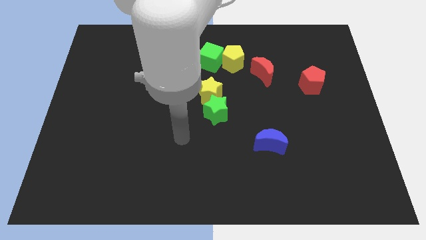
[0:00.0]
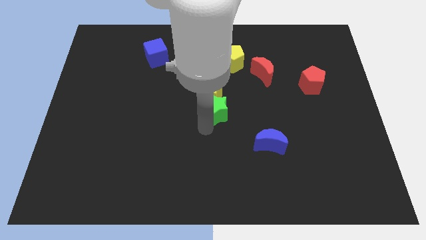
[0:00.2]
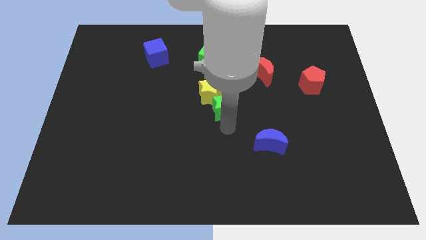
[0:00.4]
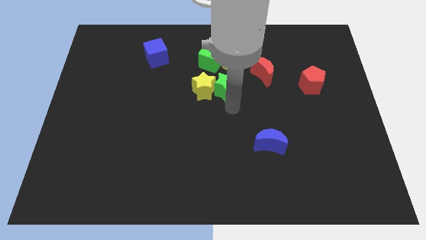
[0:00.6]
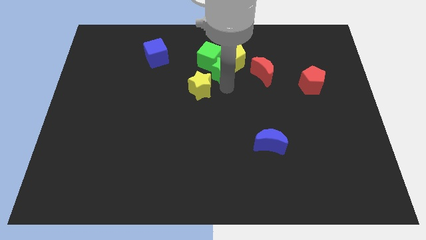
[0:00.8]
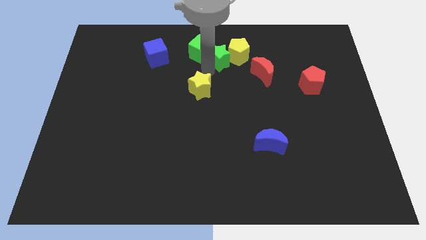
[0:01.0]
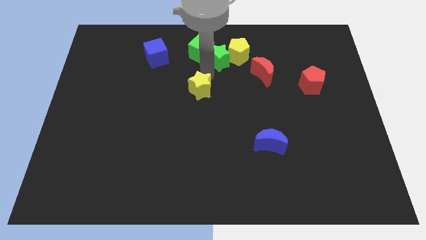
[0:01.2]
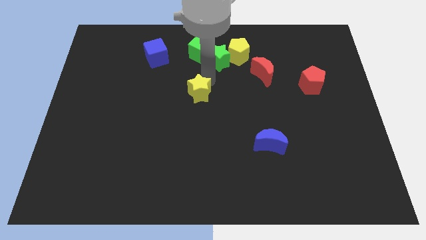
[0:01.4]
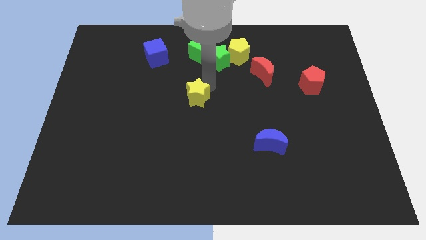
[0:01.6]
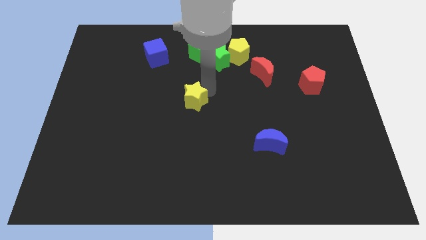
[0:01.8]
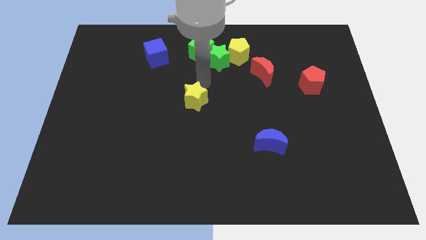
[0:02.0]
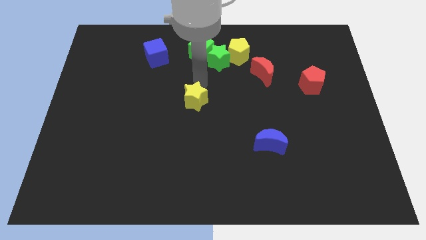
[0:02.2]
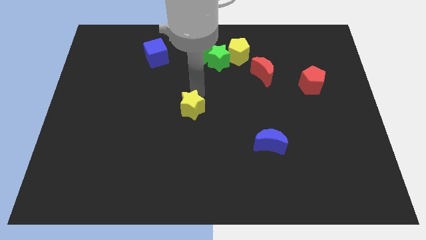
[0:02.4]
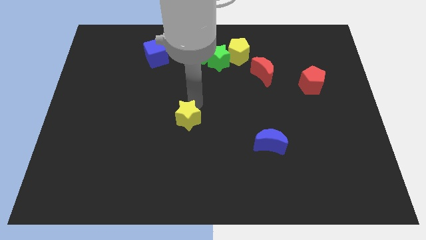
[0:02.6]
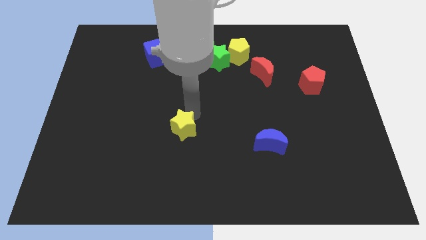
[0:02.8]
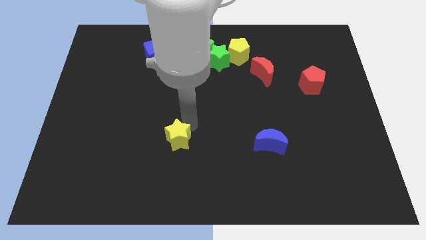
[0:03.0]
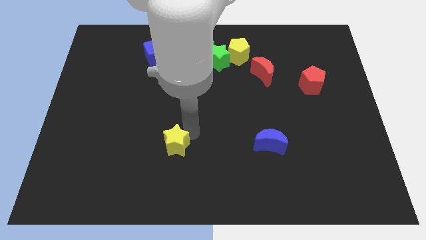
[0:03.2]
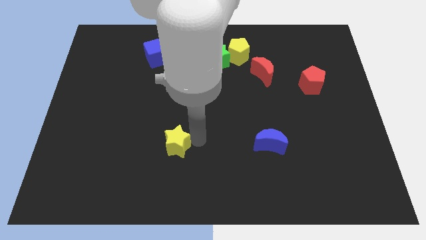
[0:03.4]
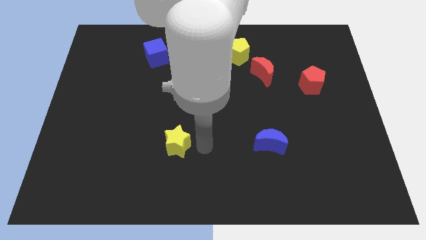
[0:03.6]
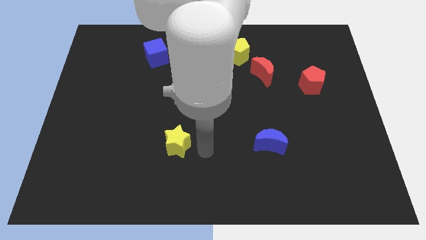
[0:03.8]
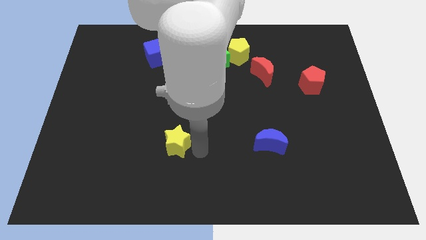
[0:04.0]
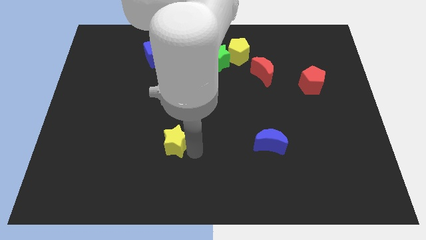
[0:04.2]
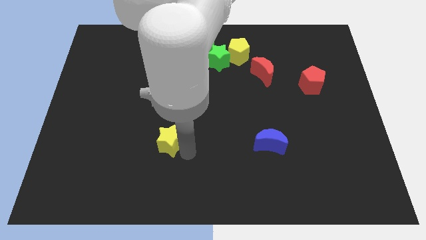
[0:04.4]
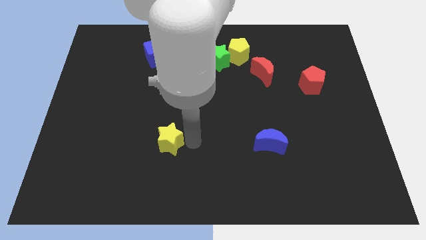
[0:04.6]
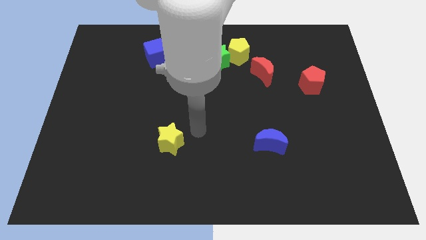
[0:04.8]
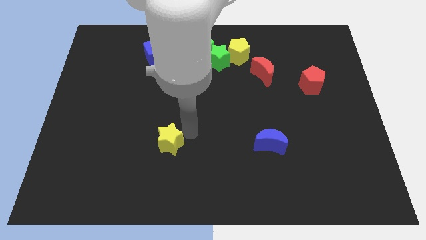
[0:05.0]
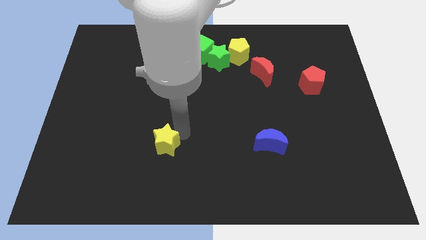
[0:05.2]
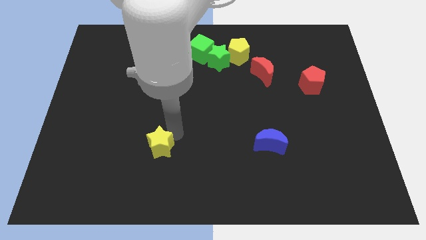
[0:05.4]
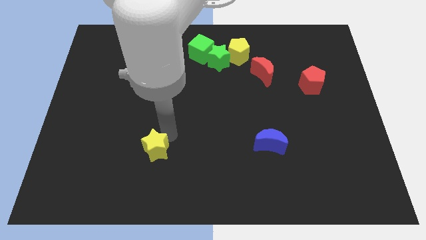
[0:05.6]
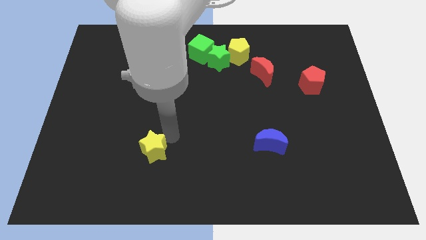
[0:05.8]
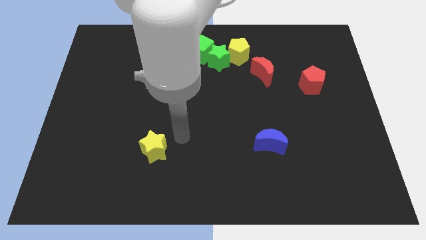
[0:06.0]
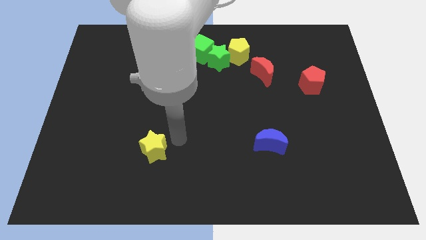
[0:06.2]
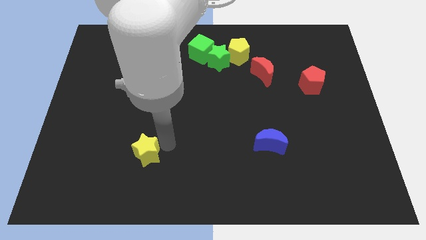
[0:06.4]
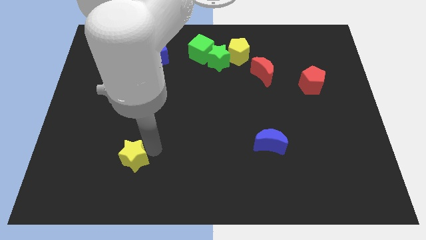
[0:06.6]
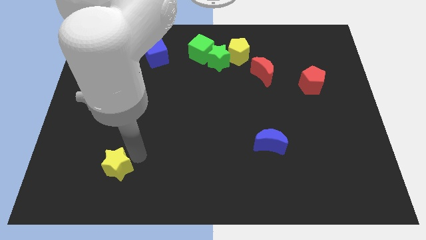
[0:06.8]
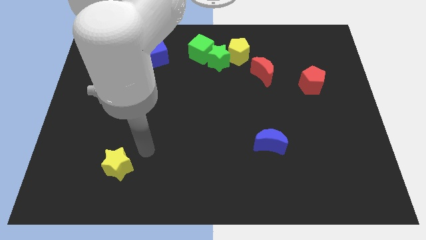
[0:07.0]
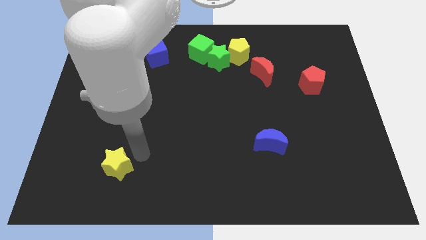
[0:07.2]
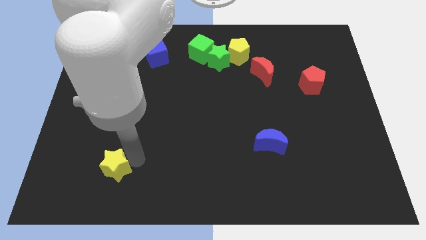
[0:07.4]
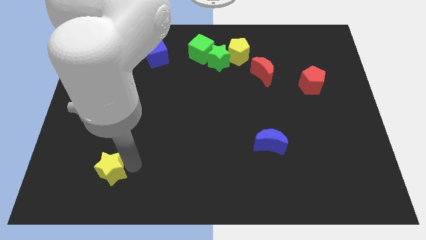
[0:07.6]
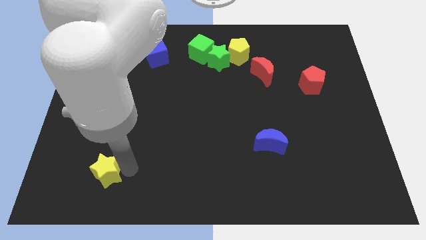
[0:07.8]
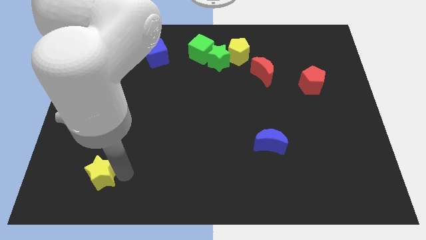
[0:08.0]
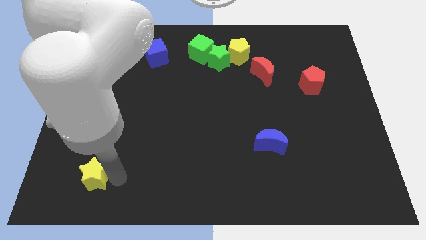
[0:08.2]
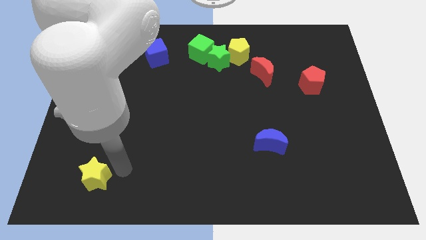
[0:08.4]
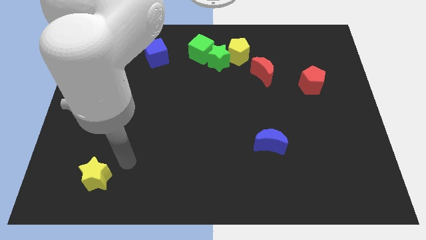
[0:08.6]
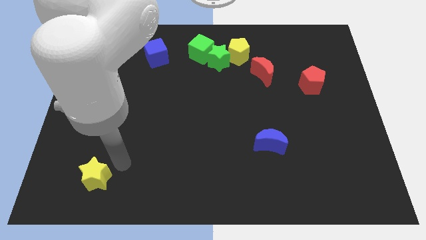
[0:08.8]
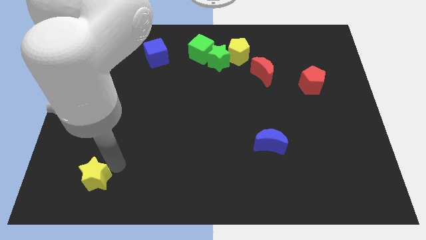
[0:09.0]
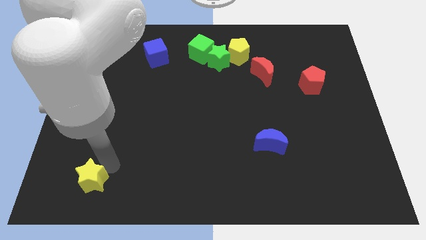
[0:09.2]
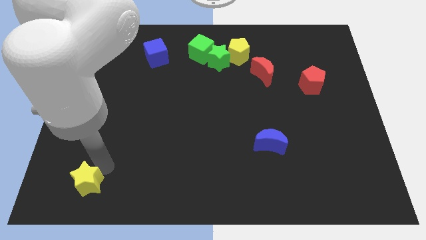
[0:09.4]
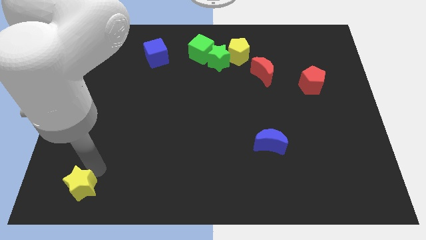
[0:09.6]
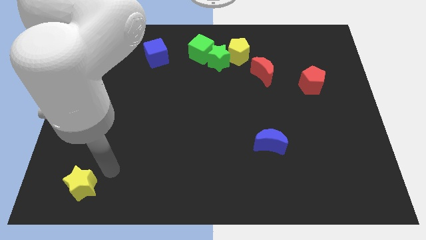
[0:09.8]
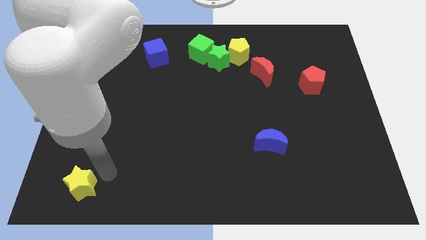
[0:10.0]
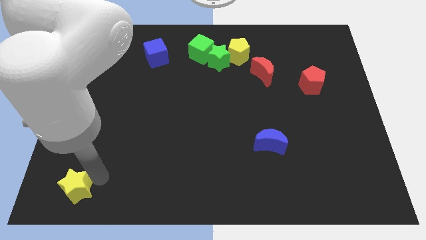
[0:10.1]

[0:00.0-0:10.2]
put the yellow star to the lower left corner

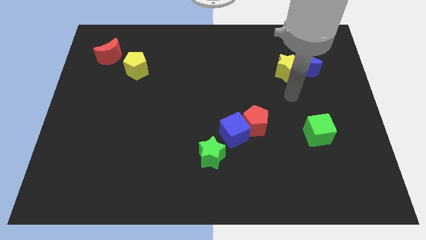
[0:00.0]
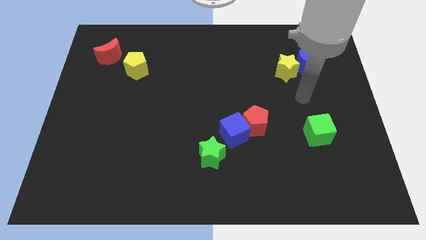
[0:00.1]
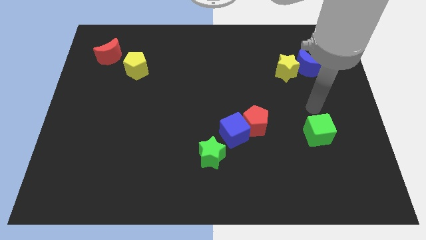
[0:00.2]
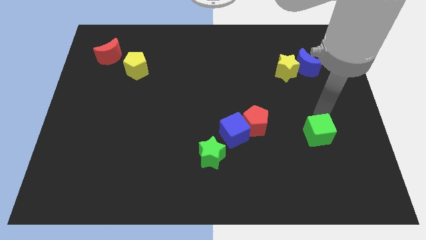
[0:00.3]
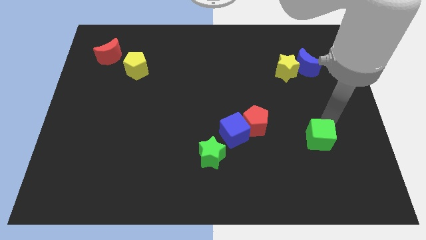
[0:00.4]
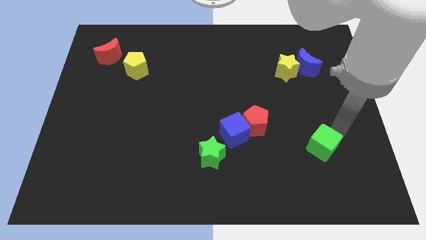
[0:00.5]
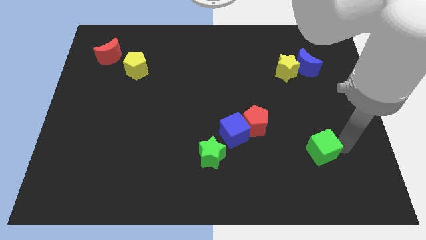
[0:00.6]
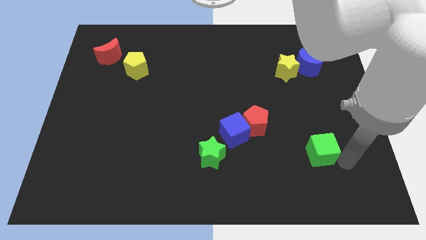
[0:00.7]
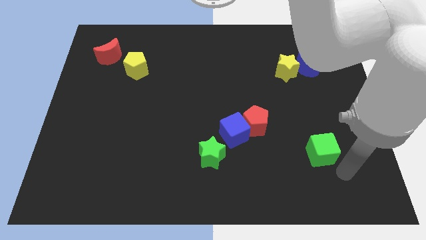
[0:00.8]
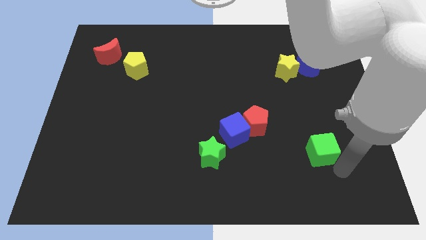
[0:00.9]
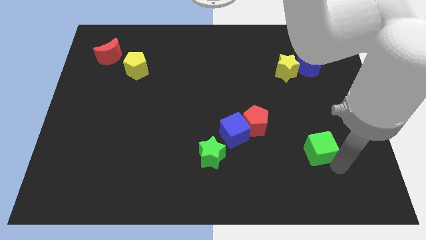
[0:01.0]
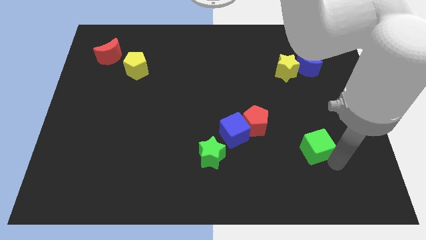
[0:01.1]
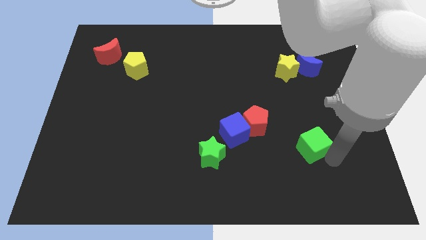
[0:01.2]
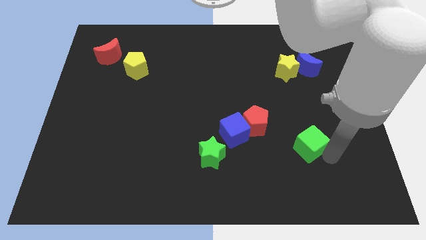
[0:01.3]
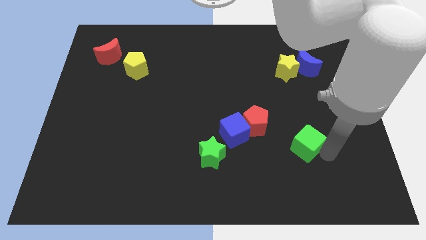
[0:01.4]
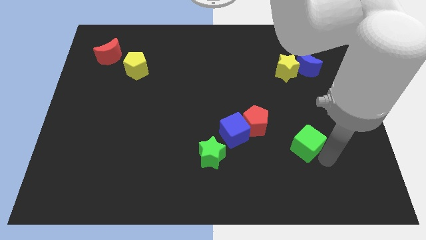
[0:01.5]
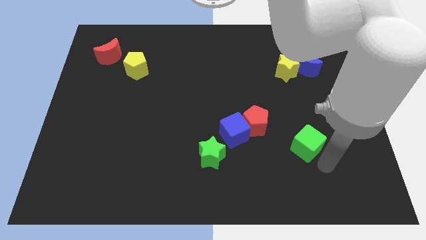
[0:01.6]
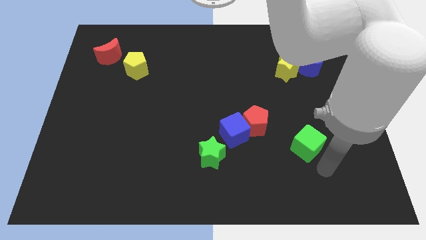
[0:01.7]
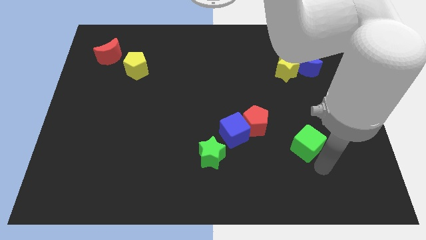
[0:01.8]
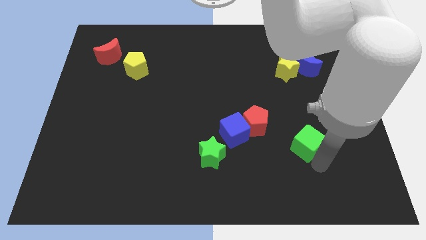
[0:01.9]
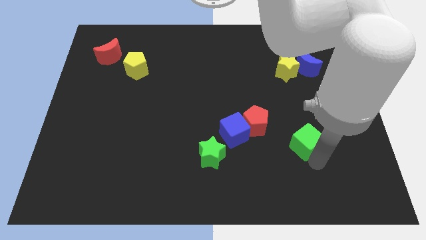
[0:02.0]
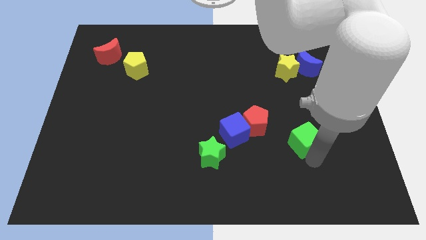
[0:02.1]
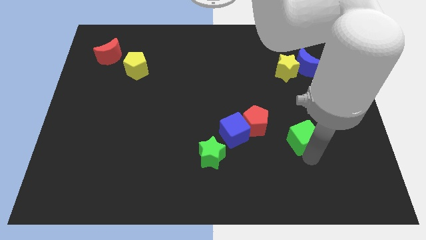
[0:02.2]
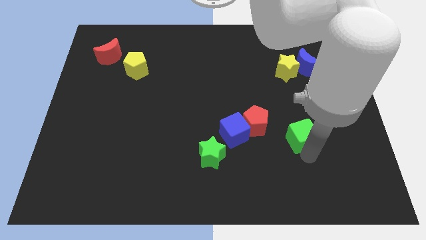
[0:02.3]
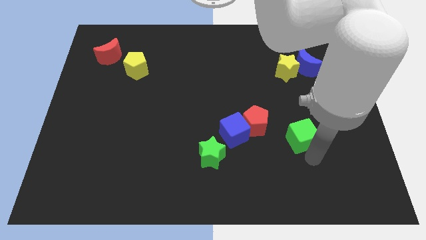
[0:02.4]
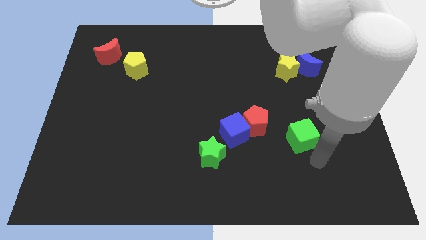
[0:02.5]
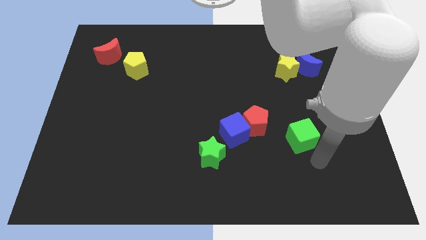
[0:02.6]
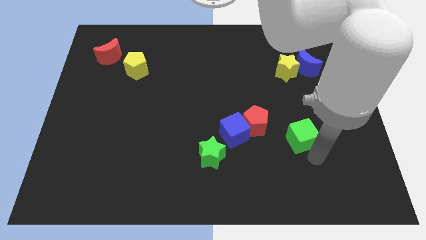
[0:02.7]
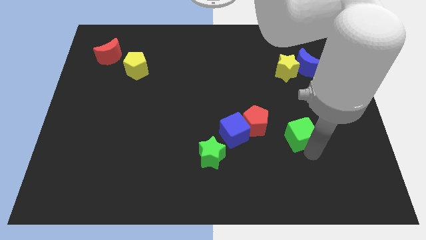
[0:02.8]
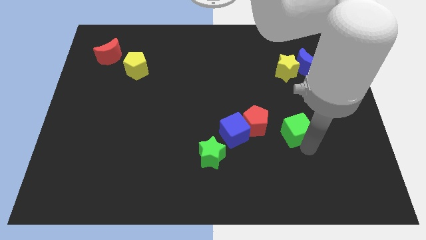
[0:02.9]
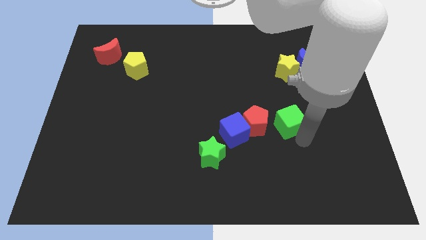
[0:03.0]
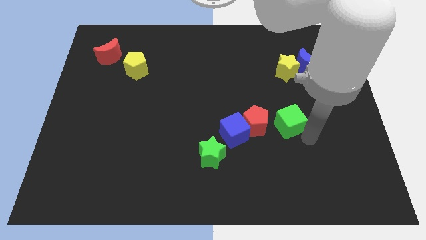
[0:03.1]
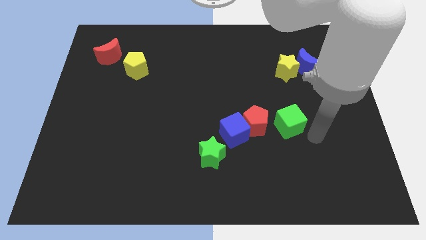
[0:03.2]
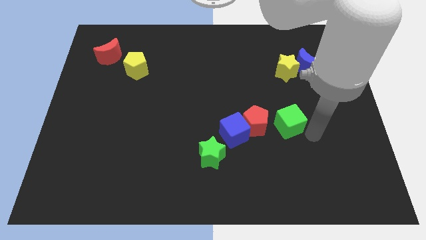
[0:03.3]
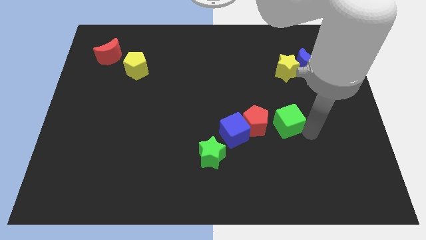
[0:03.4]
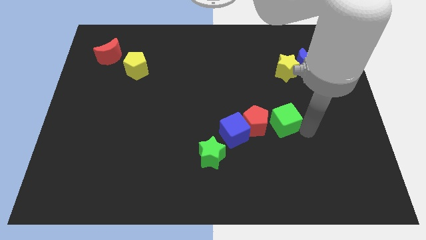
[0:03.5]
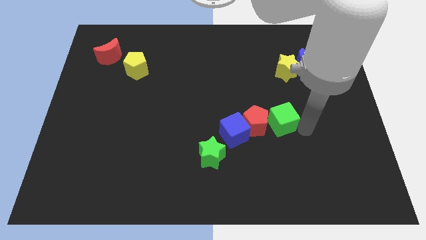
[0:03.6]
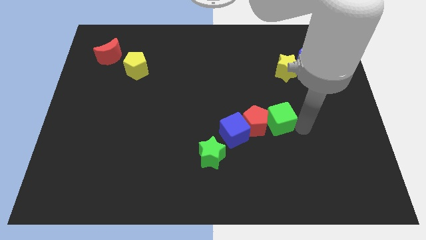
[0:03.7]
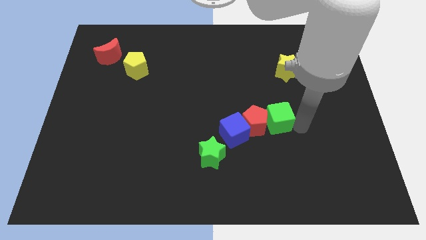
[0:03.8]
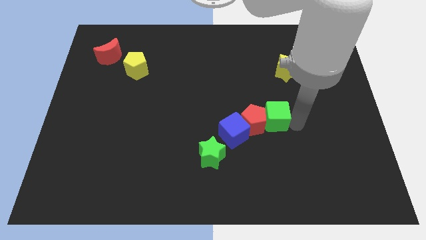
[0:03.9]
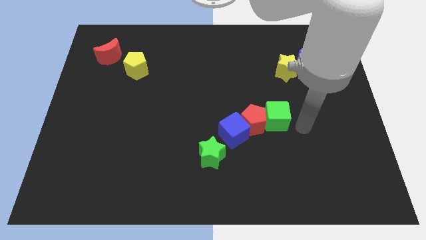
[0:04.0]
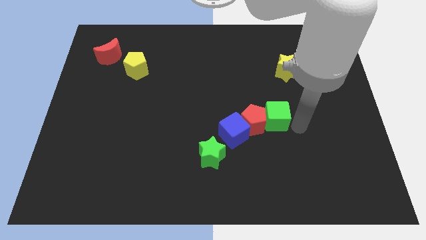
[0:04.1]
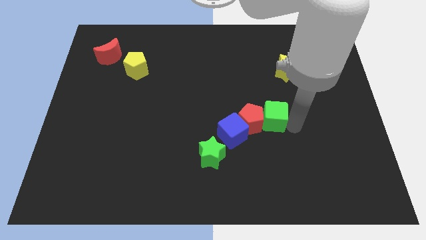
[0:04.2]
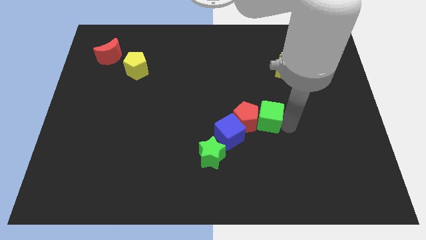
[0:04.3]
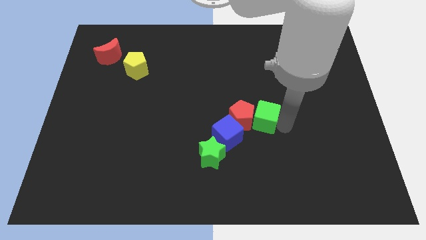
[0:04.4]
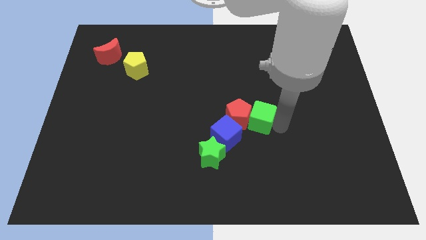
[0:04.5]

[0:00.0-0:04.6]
put the green cube to the middle
